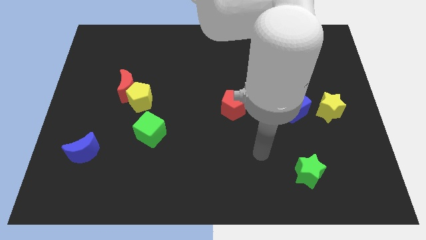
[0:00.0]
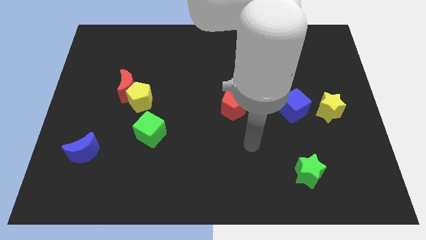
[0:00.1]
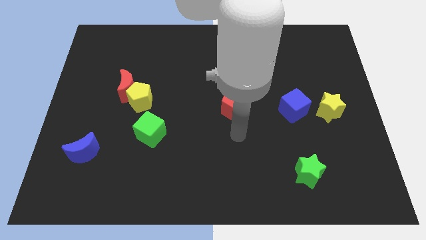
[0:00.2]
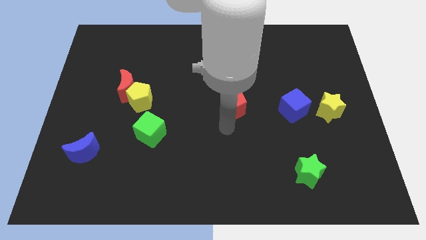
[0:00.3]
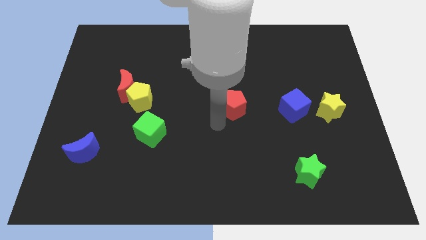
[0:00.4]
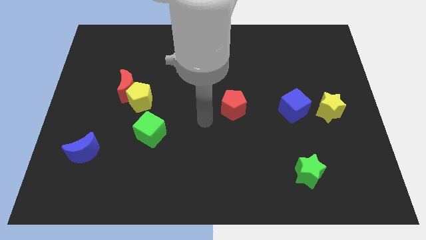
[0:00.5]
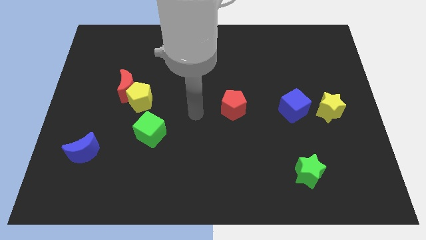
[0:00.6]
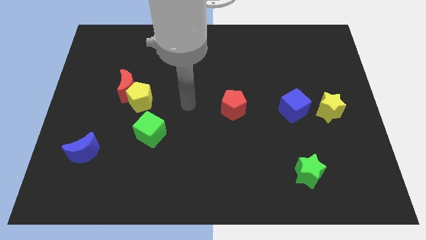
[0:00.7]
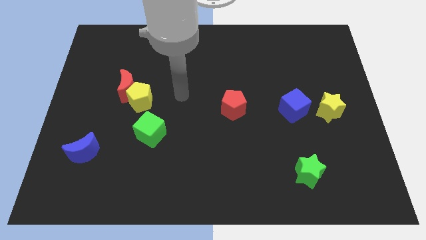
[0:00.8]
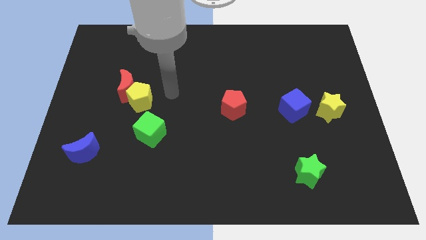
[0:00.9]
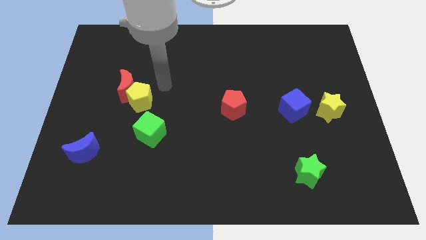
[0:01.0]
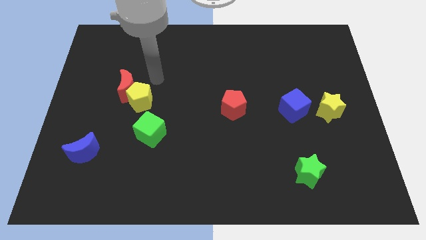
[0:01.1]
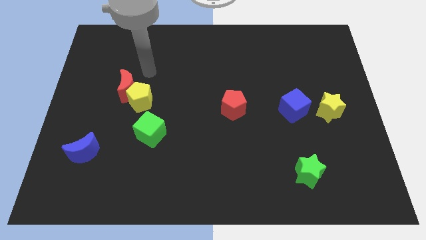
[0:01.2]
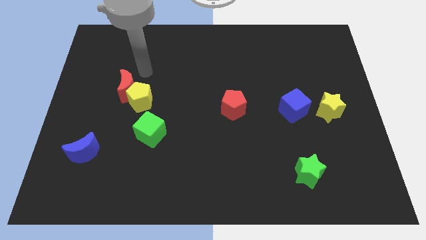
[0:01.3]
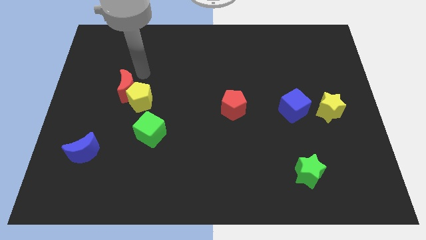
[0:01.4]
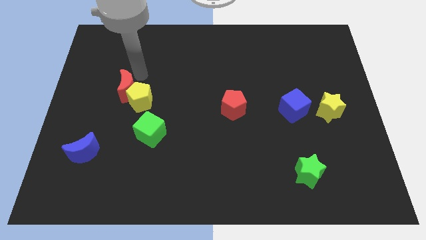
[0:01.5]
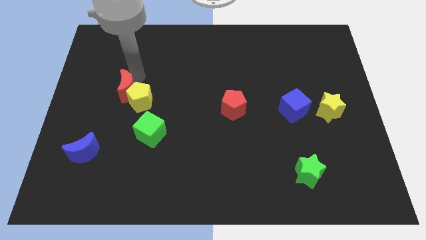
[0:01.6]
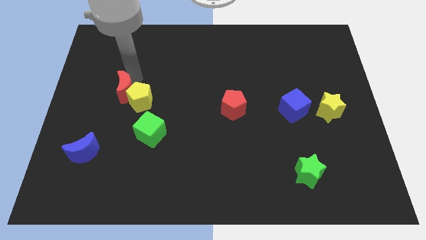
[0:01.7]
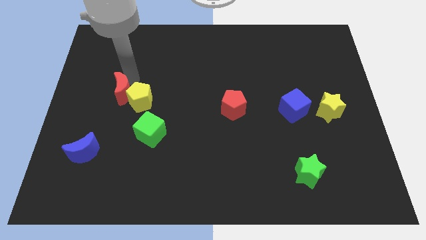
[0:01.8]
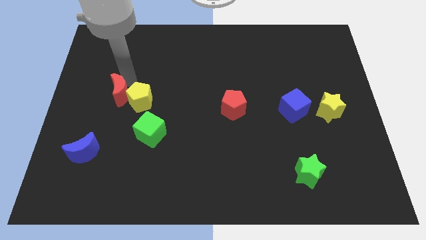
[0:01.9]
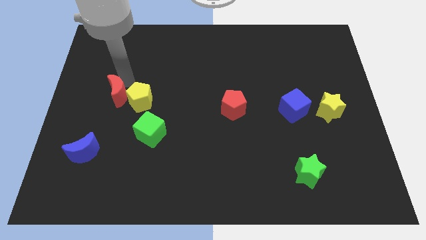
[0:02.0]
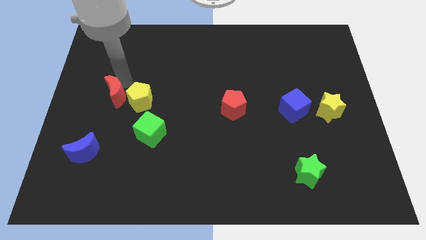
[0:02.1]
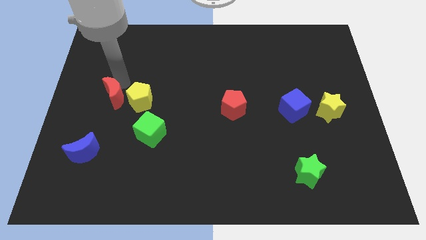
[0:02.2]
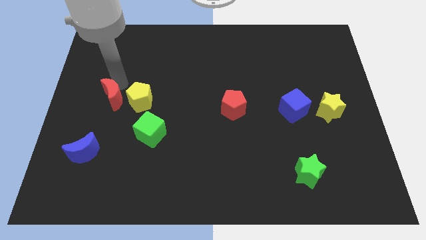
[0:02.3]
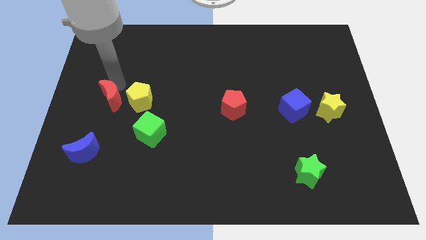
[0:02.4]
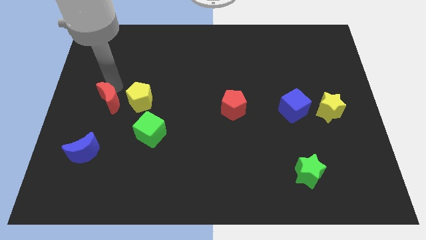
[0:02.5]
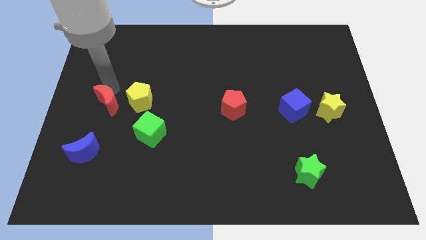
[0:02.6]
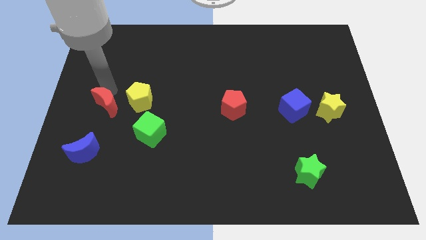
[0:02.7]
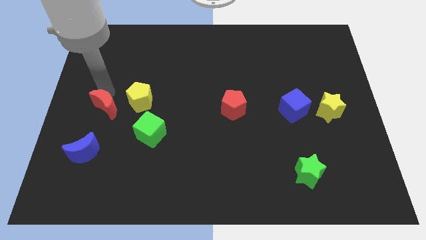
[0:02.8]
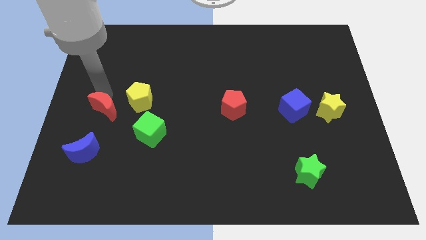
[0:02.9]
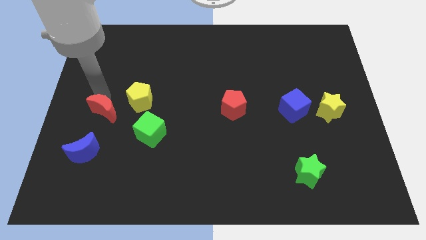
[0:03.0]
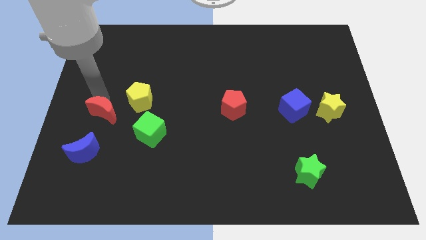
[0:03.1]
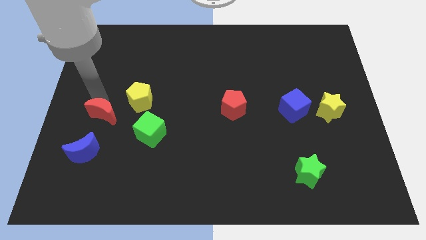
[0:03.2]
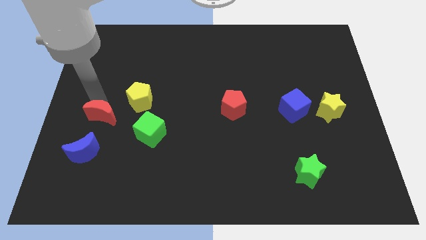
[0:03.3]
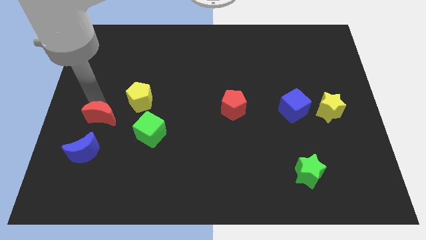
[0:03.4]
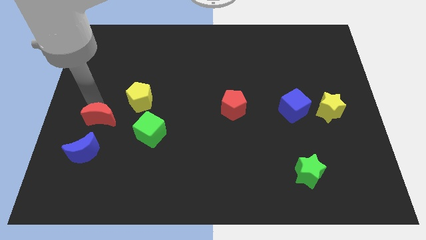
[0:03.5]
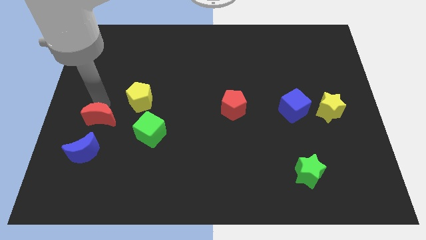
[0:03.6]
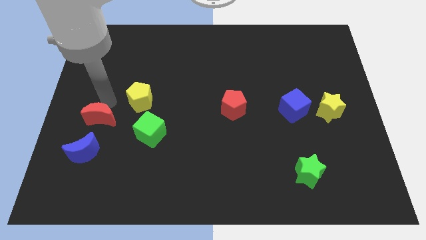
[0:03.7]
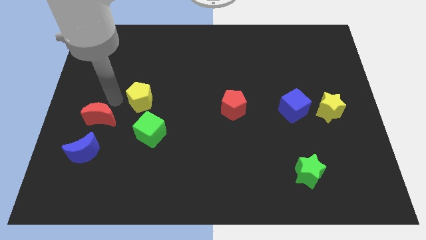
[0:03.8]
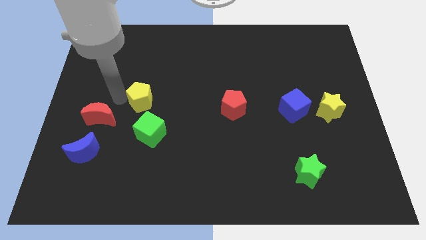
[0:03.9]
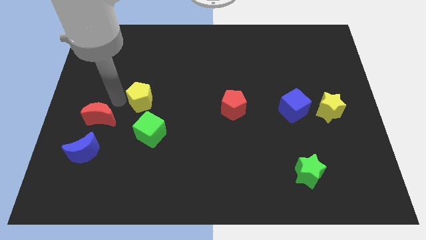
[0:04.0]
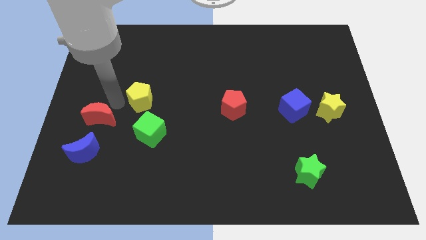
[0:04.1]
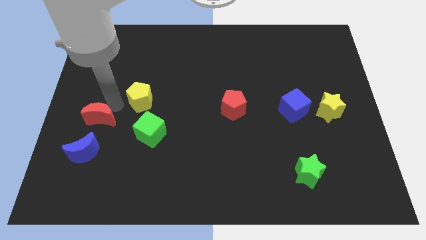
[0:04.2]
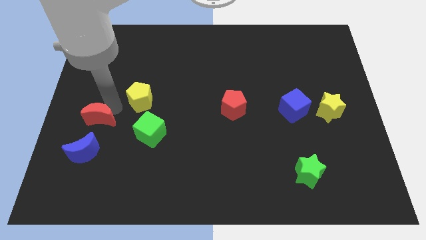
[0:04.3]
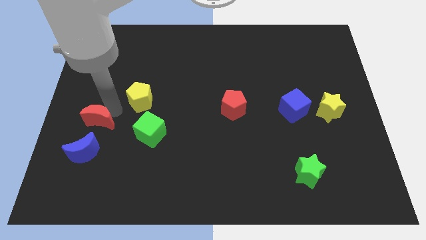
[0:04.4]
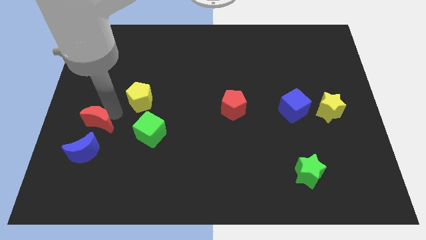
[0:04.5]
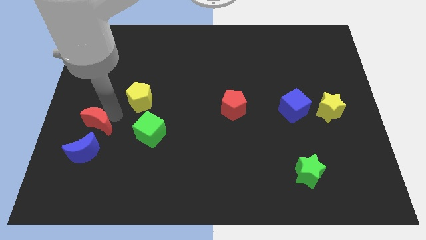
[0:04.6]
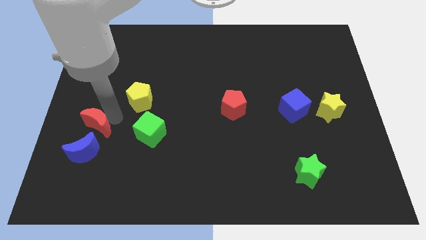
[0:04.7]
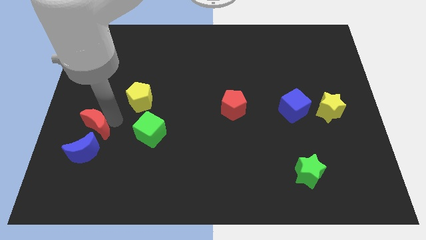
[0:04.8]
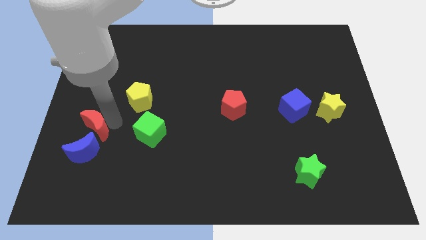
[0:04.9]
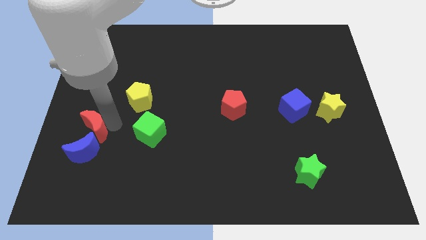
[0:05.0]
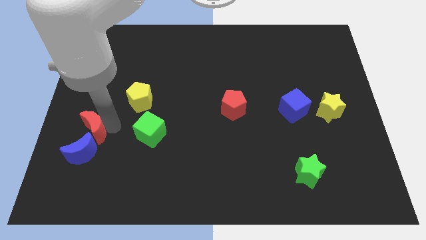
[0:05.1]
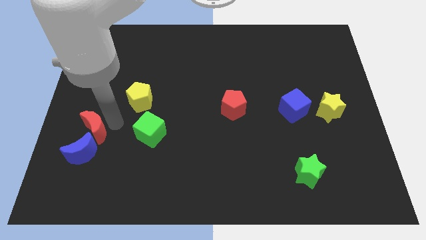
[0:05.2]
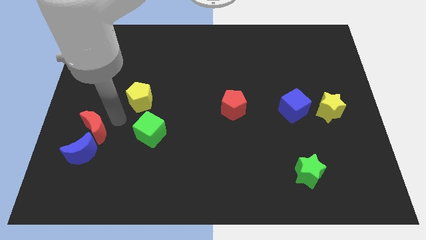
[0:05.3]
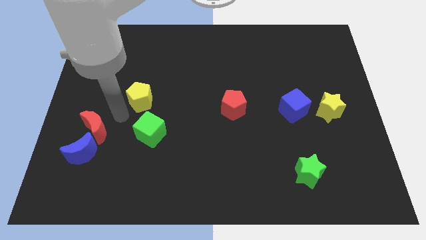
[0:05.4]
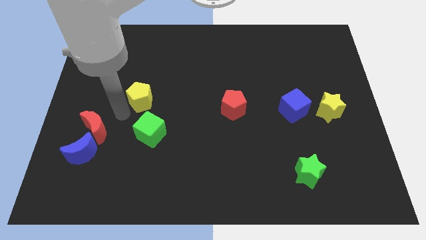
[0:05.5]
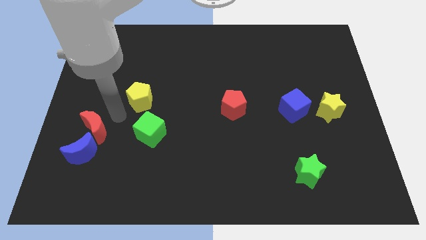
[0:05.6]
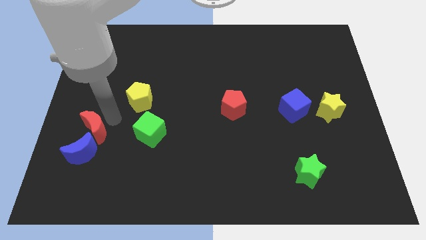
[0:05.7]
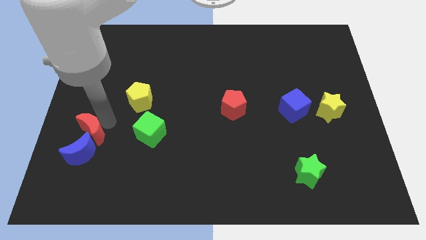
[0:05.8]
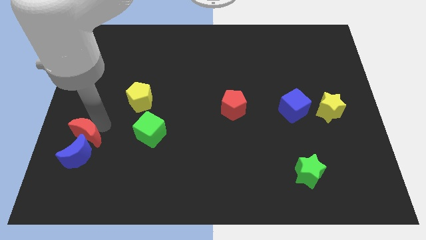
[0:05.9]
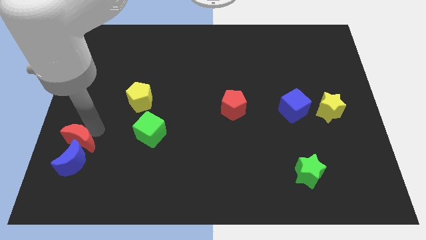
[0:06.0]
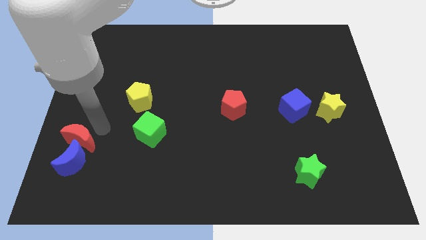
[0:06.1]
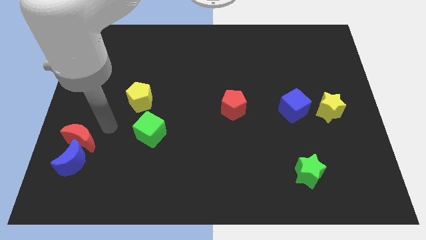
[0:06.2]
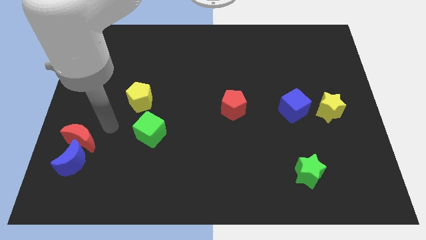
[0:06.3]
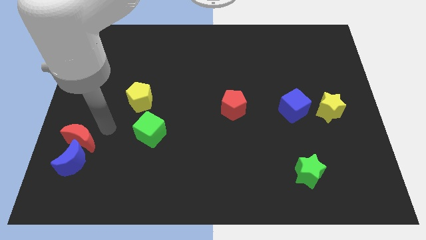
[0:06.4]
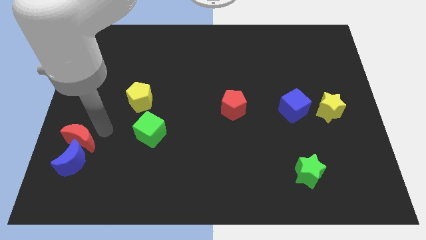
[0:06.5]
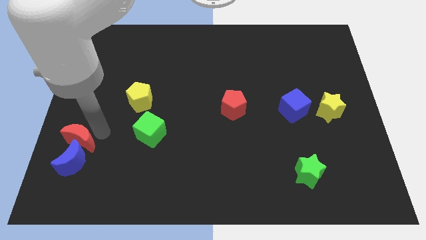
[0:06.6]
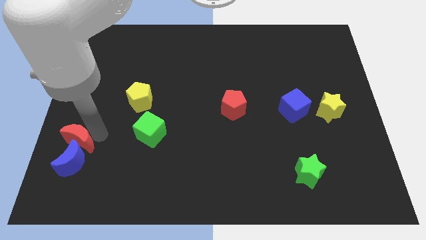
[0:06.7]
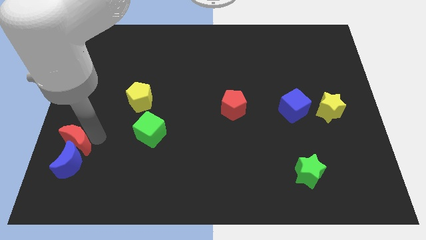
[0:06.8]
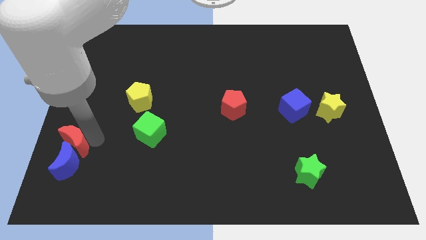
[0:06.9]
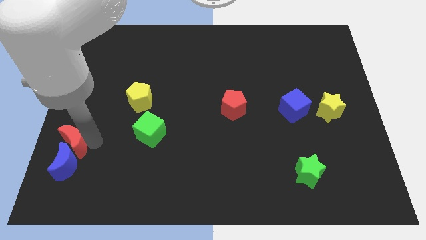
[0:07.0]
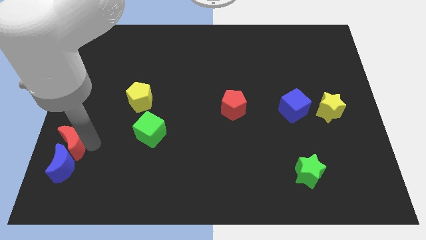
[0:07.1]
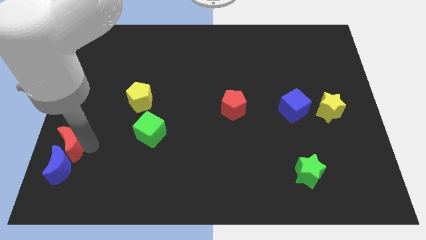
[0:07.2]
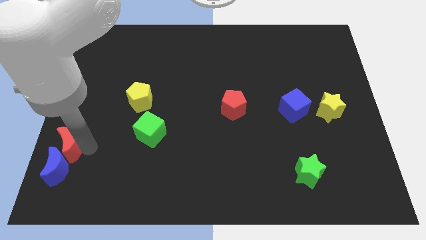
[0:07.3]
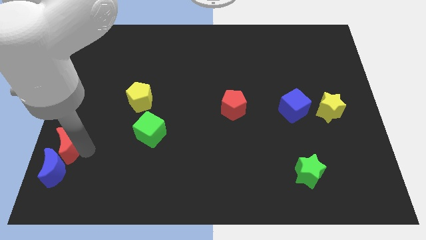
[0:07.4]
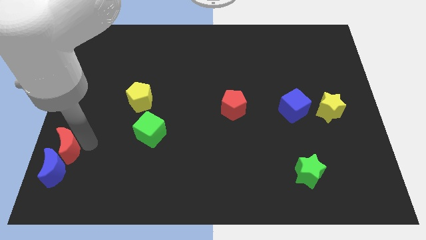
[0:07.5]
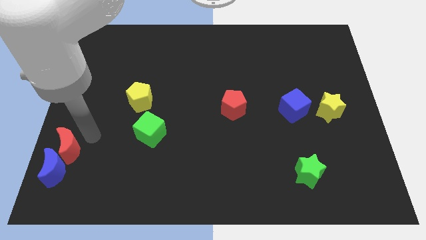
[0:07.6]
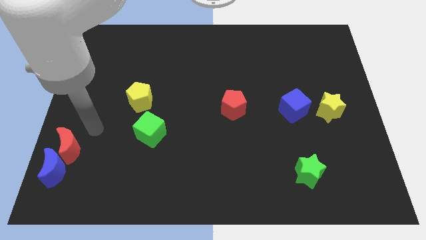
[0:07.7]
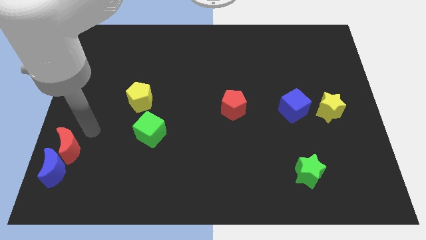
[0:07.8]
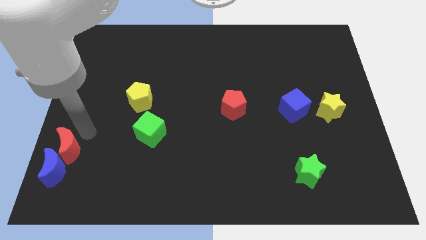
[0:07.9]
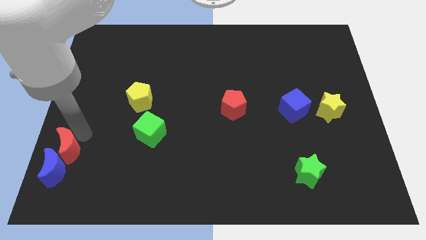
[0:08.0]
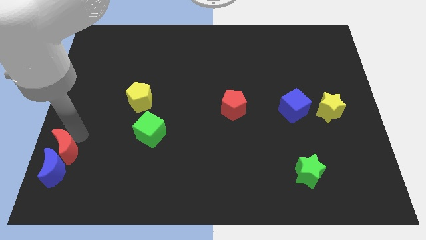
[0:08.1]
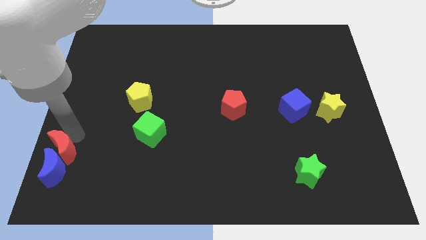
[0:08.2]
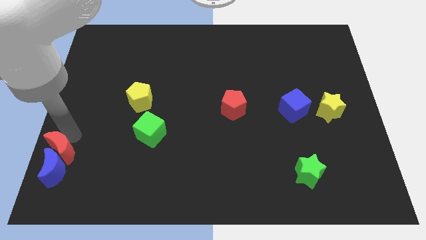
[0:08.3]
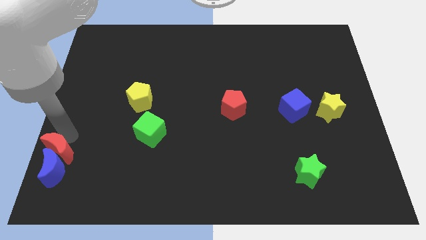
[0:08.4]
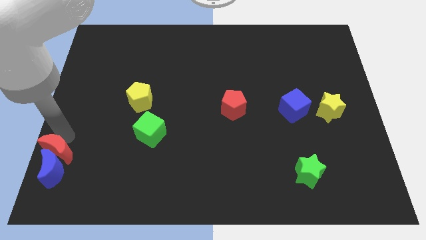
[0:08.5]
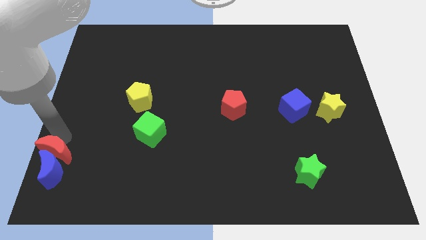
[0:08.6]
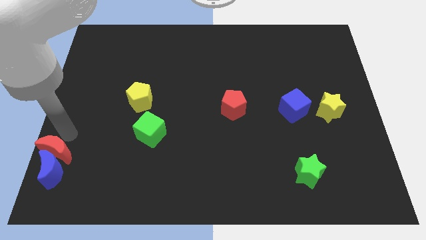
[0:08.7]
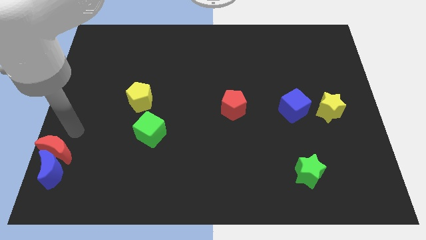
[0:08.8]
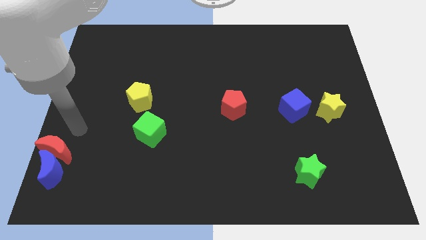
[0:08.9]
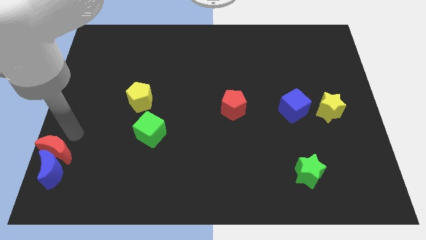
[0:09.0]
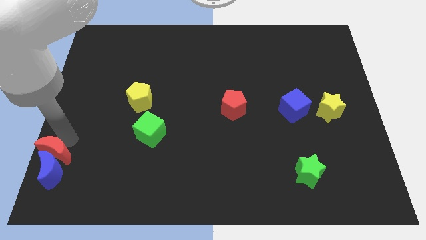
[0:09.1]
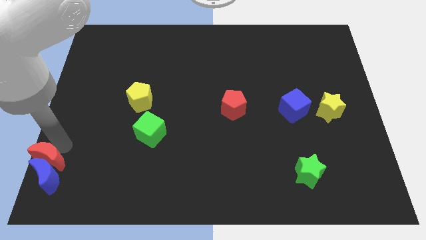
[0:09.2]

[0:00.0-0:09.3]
push the red moon to the bottom left
